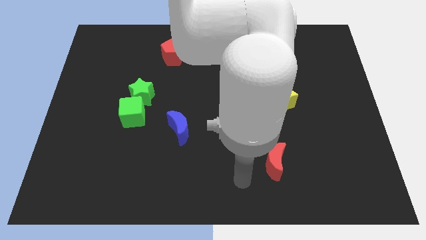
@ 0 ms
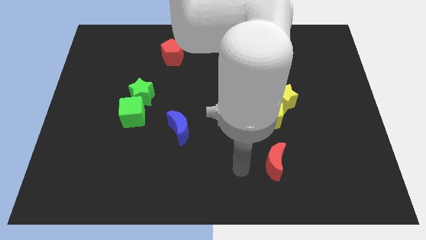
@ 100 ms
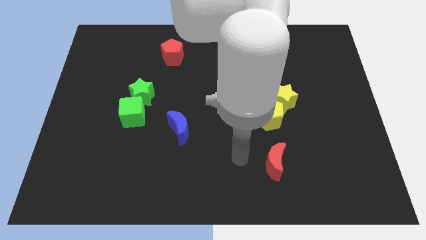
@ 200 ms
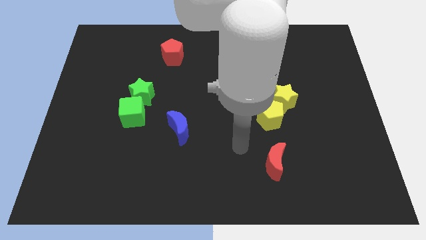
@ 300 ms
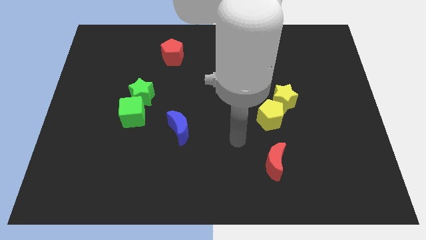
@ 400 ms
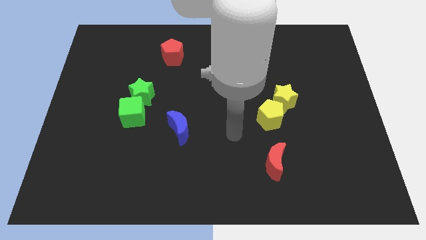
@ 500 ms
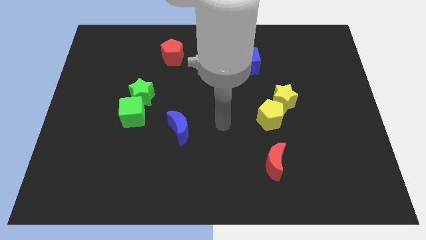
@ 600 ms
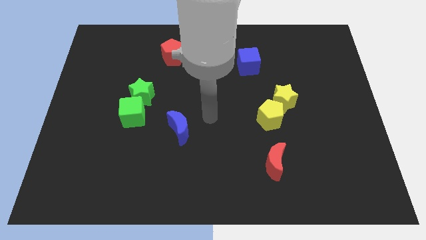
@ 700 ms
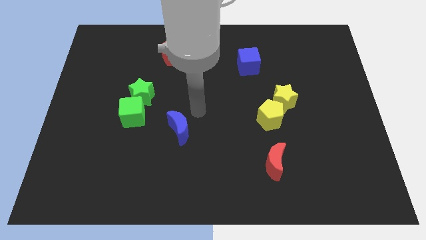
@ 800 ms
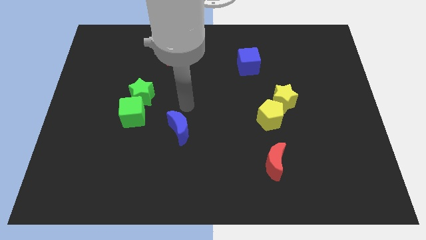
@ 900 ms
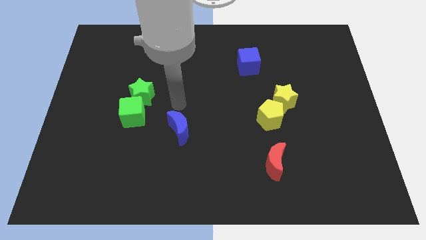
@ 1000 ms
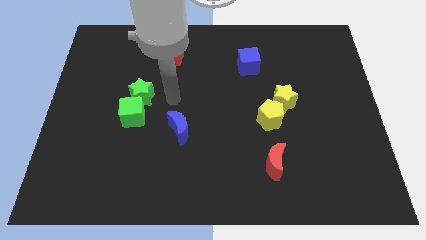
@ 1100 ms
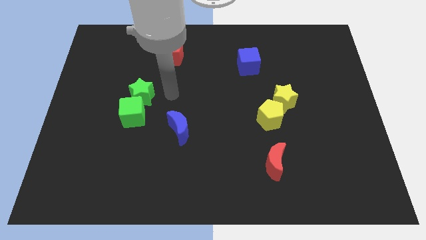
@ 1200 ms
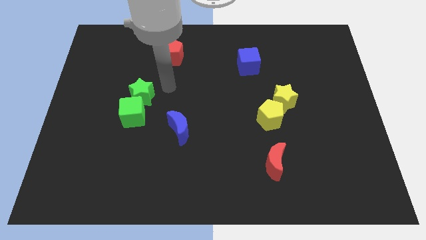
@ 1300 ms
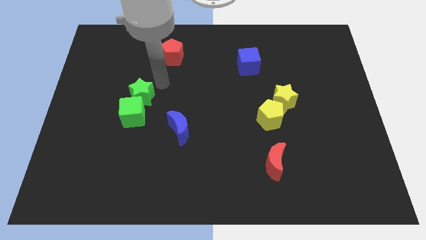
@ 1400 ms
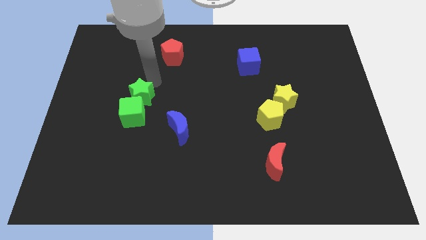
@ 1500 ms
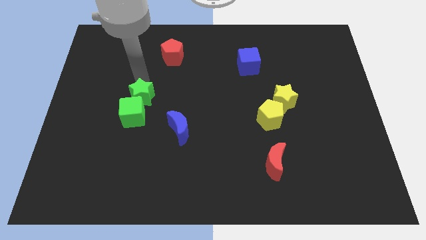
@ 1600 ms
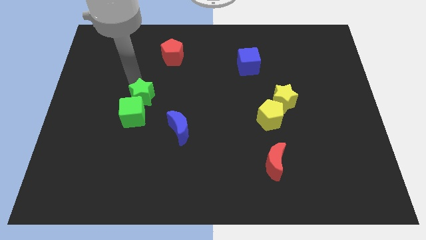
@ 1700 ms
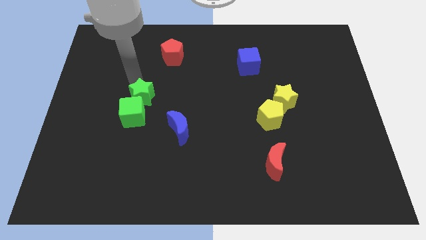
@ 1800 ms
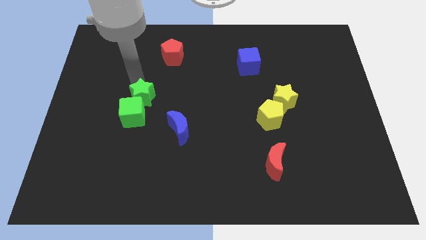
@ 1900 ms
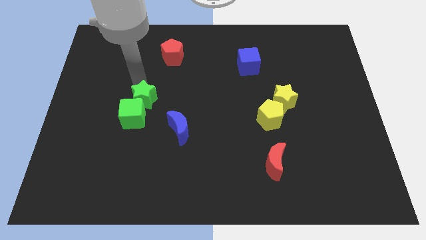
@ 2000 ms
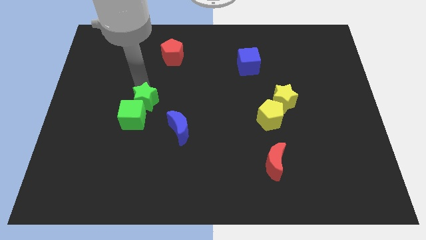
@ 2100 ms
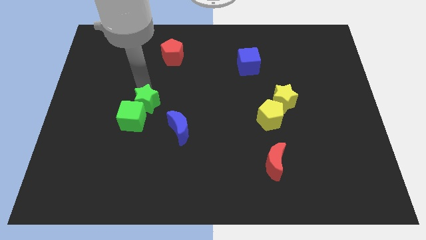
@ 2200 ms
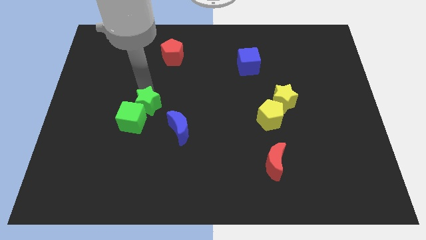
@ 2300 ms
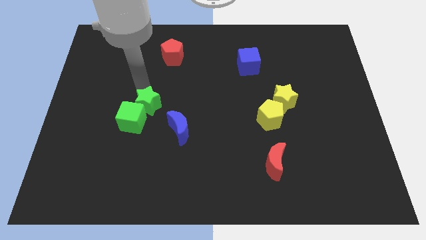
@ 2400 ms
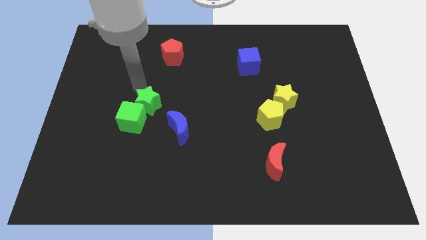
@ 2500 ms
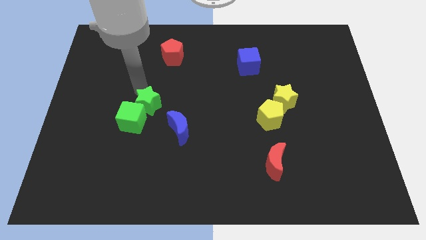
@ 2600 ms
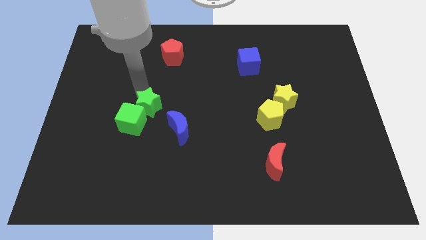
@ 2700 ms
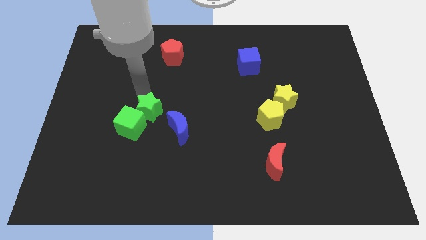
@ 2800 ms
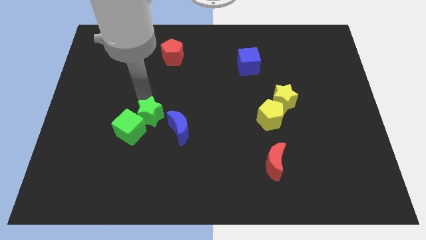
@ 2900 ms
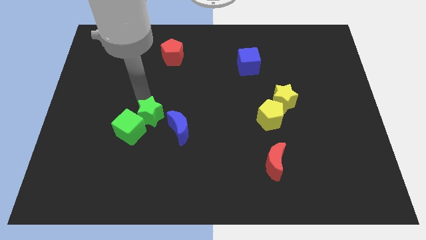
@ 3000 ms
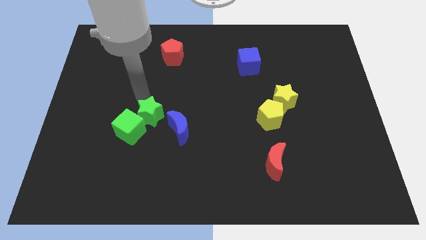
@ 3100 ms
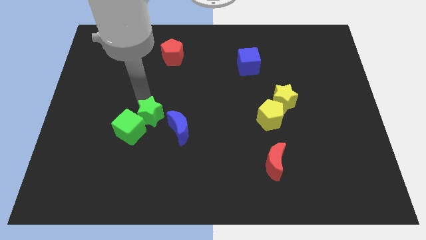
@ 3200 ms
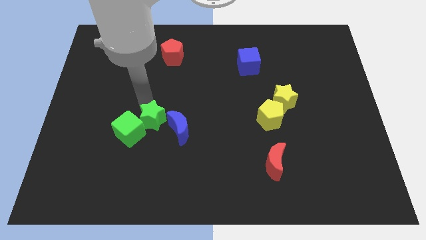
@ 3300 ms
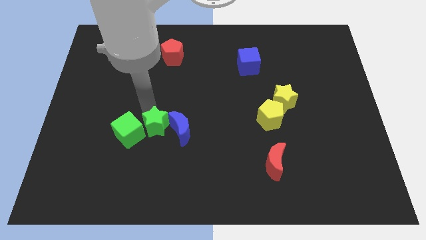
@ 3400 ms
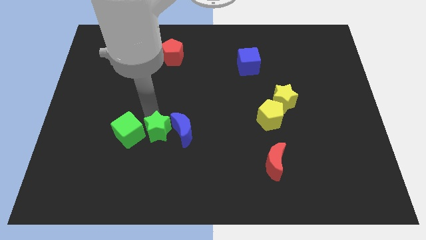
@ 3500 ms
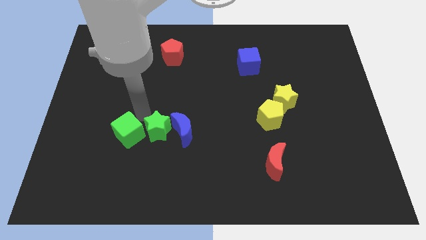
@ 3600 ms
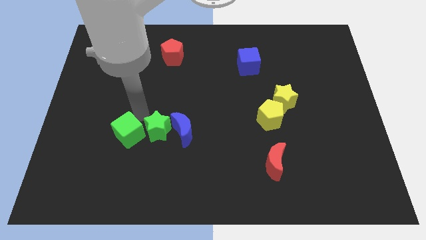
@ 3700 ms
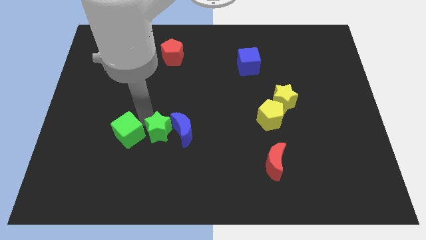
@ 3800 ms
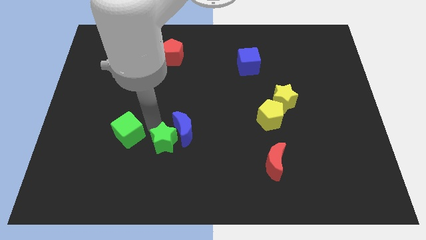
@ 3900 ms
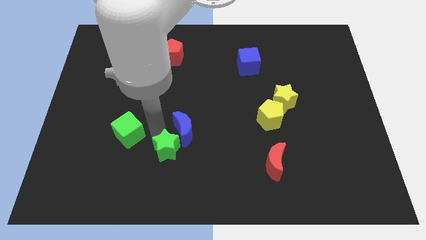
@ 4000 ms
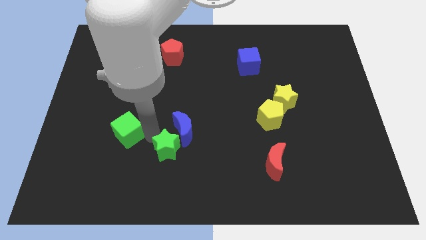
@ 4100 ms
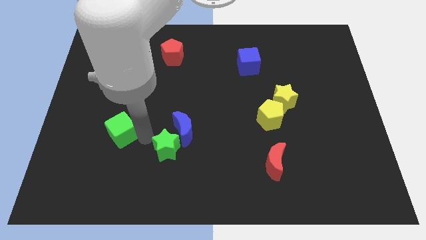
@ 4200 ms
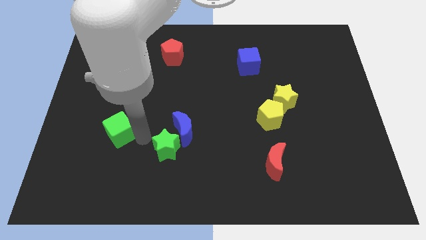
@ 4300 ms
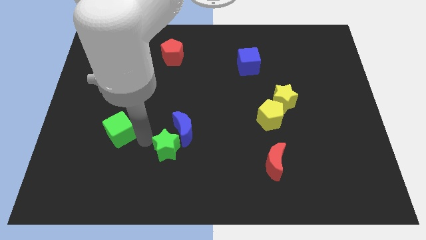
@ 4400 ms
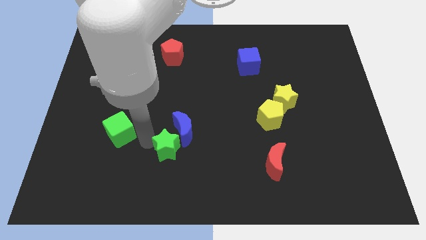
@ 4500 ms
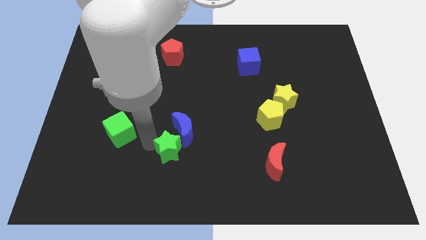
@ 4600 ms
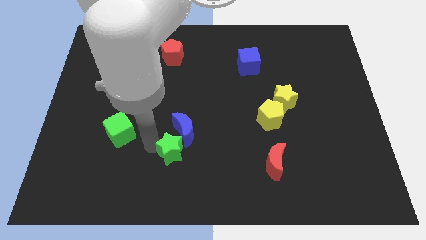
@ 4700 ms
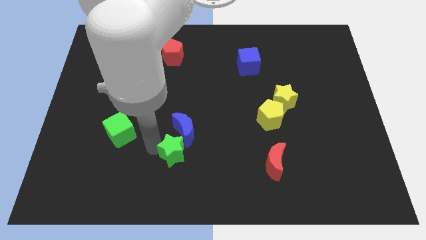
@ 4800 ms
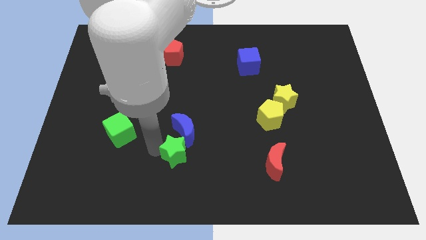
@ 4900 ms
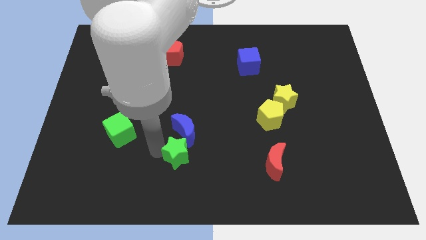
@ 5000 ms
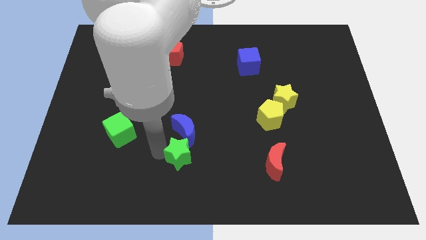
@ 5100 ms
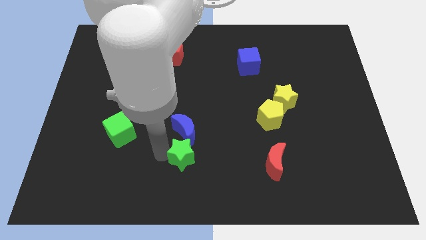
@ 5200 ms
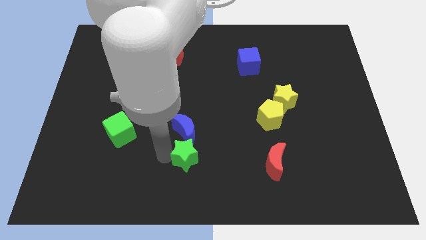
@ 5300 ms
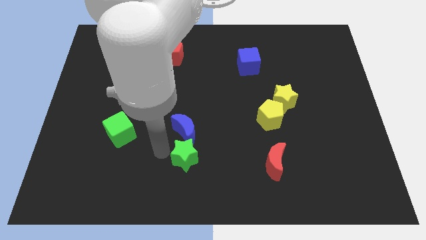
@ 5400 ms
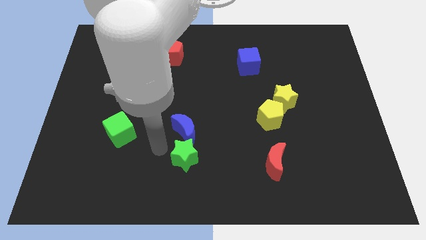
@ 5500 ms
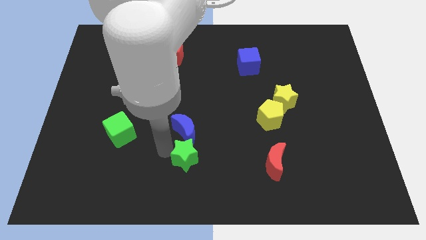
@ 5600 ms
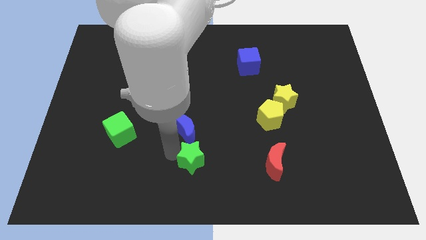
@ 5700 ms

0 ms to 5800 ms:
push the green star down and to the right diagonally

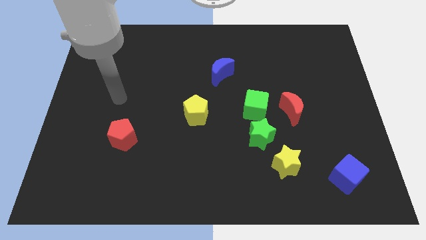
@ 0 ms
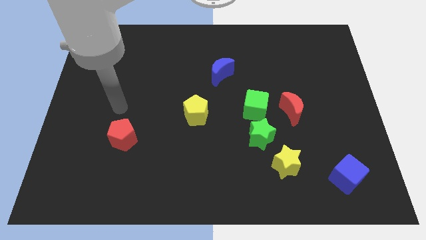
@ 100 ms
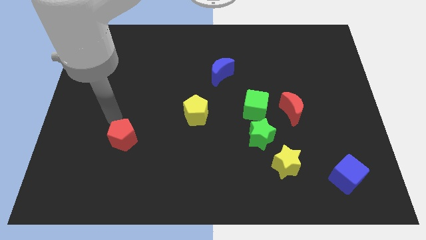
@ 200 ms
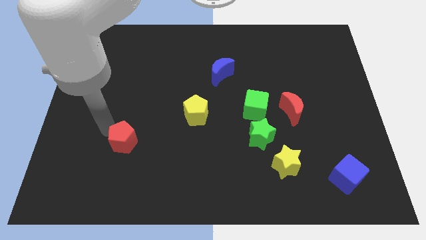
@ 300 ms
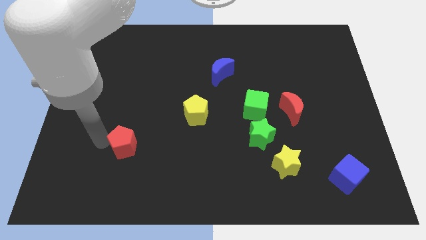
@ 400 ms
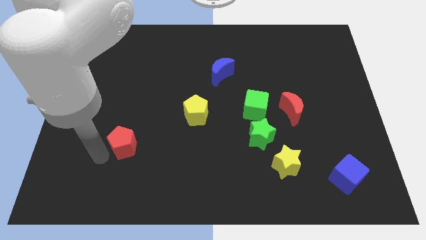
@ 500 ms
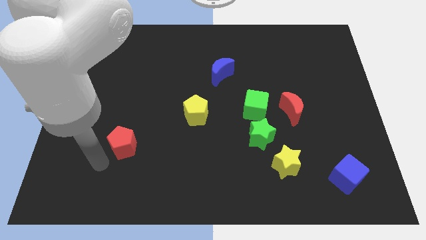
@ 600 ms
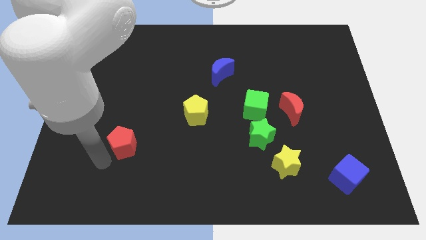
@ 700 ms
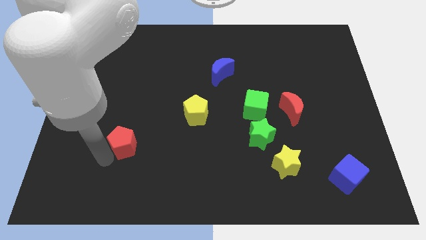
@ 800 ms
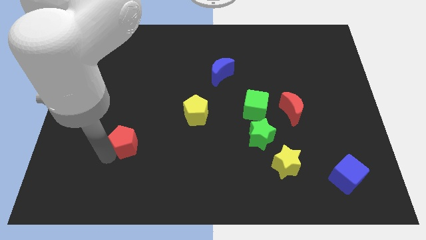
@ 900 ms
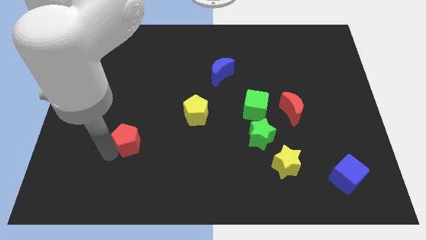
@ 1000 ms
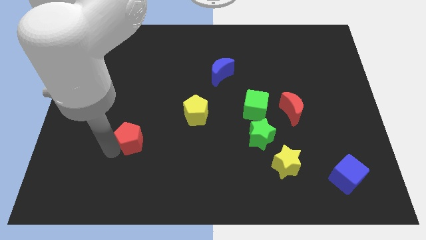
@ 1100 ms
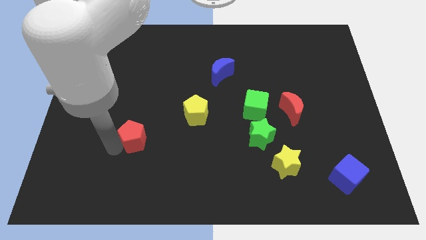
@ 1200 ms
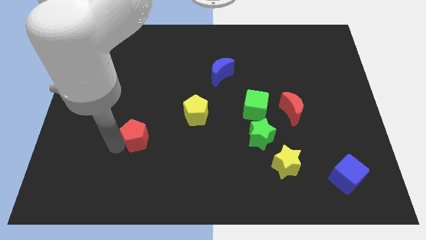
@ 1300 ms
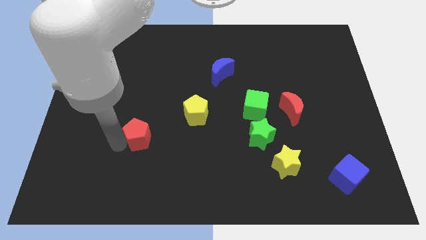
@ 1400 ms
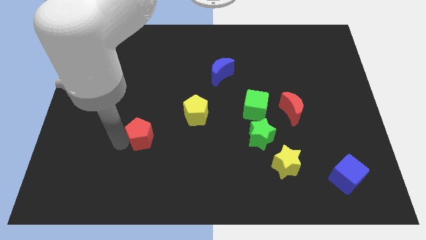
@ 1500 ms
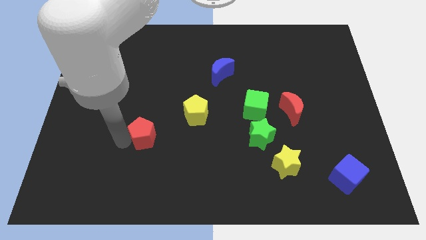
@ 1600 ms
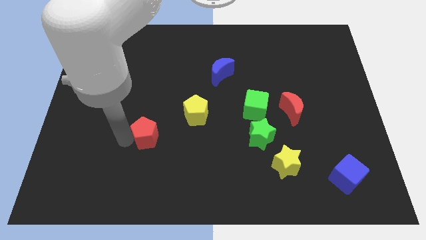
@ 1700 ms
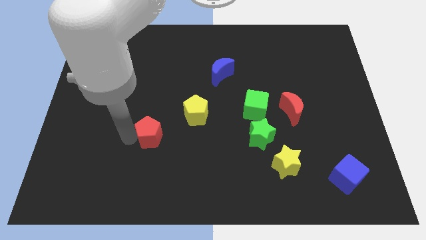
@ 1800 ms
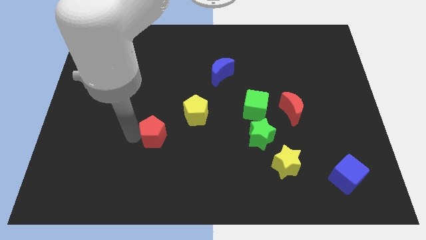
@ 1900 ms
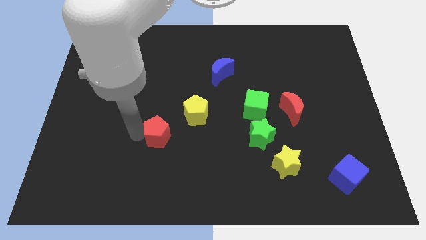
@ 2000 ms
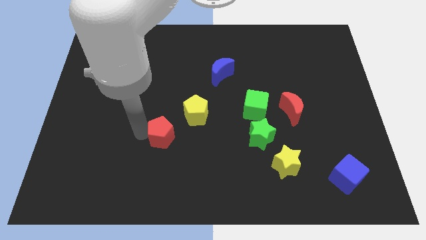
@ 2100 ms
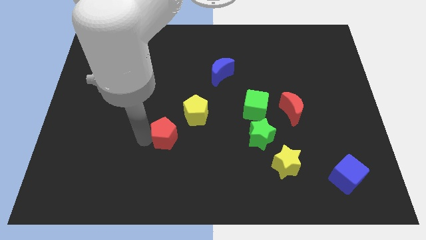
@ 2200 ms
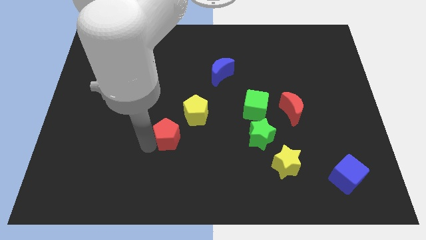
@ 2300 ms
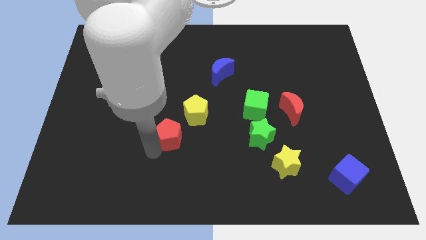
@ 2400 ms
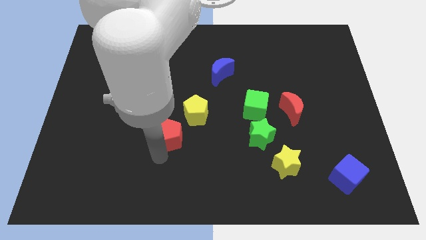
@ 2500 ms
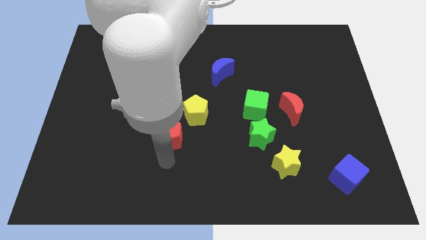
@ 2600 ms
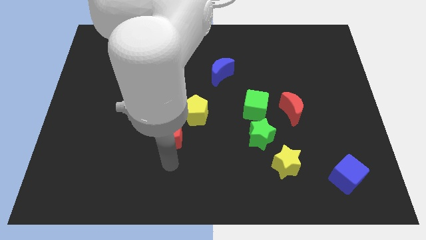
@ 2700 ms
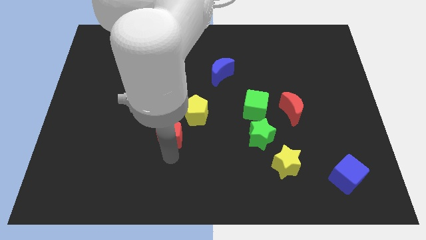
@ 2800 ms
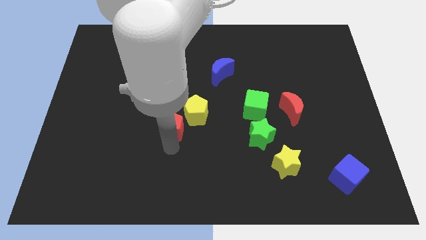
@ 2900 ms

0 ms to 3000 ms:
slightly slide the red pentagon up and right diagonally
